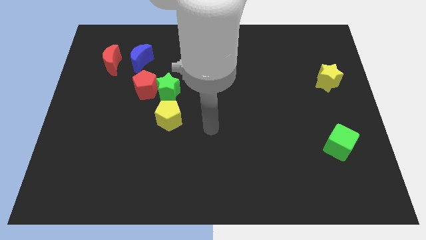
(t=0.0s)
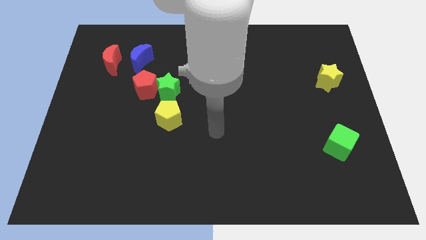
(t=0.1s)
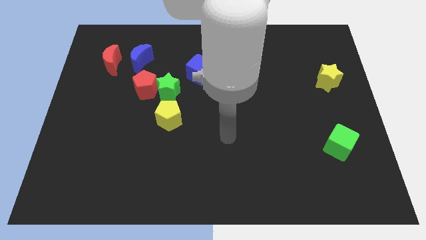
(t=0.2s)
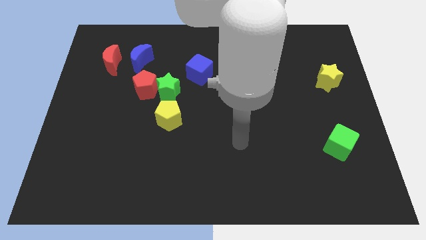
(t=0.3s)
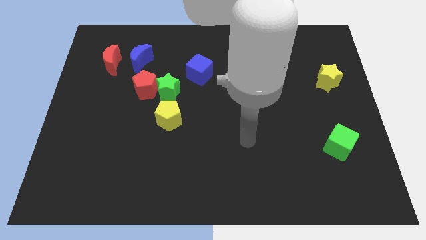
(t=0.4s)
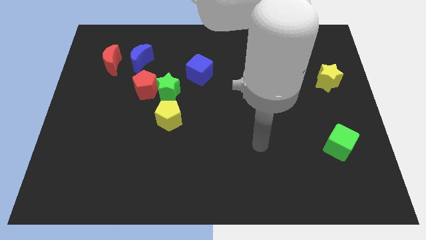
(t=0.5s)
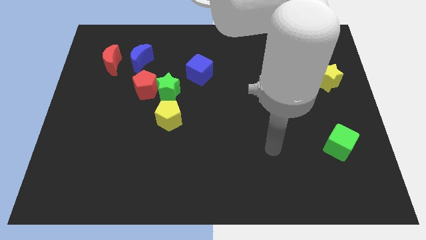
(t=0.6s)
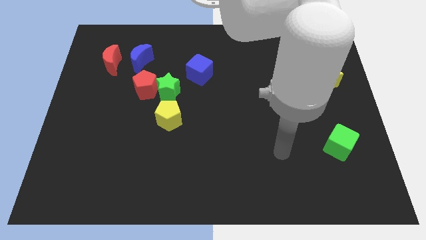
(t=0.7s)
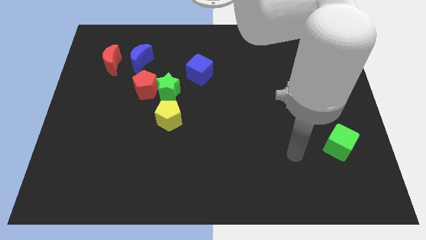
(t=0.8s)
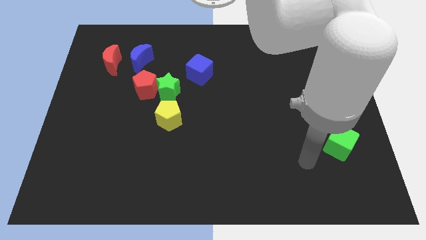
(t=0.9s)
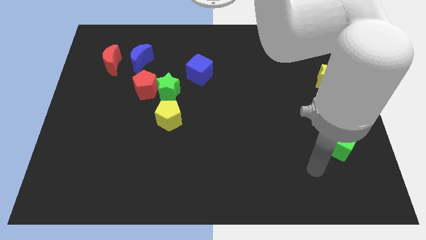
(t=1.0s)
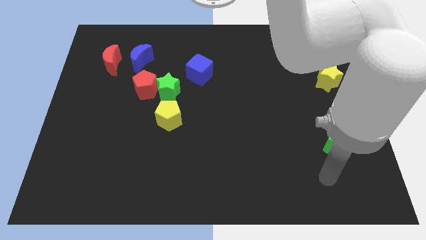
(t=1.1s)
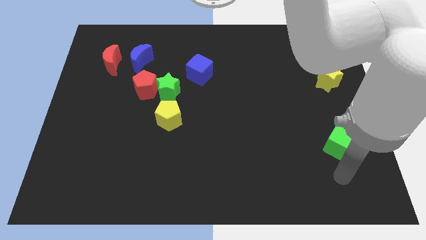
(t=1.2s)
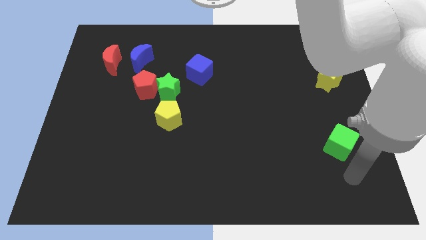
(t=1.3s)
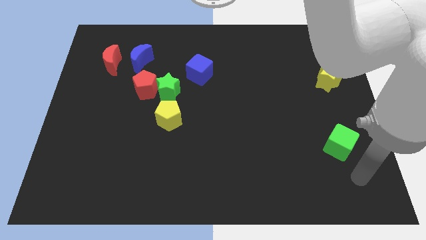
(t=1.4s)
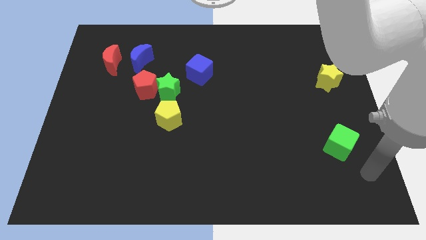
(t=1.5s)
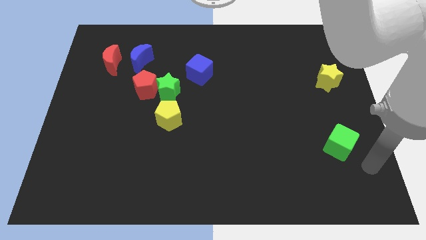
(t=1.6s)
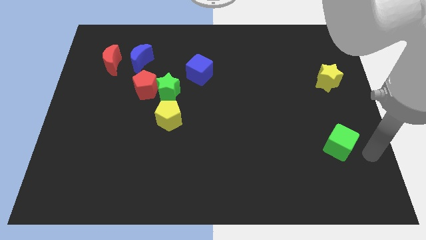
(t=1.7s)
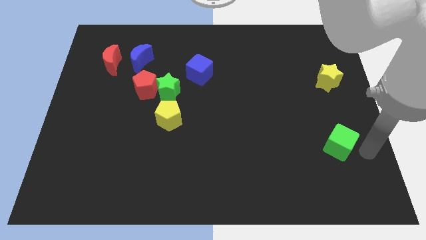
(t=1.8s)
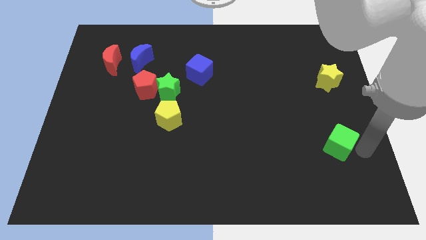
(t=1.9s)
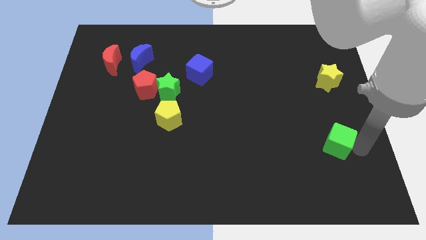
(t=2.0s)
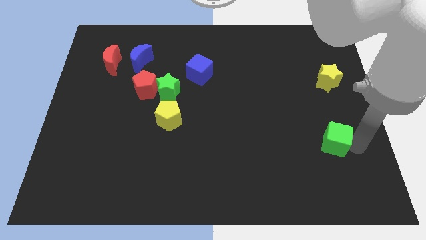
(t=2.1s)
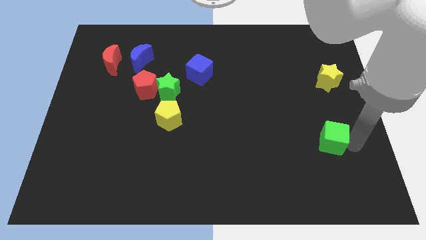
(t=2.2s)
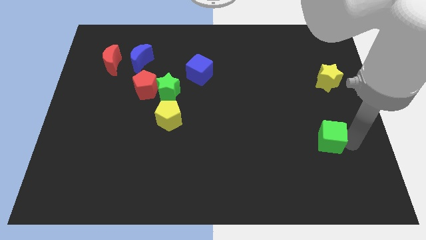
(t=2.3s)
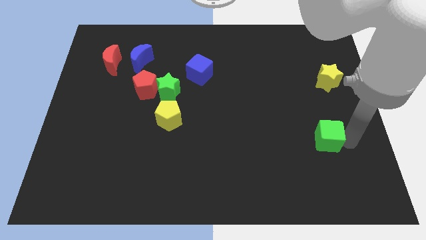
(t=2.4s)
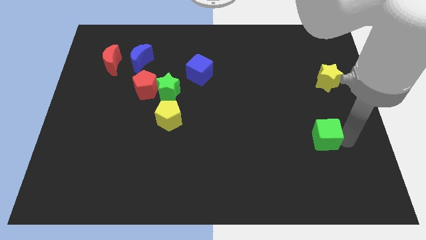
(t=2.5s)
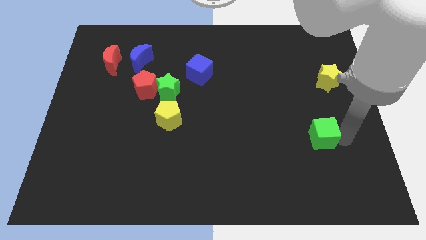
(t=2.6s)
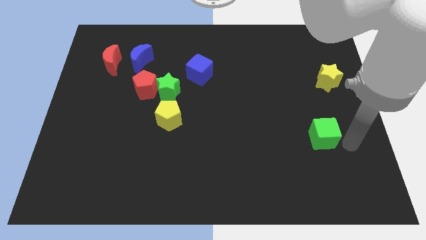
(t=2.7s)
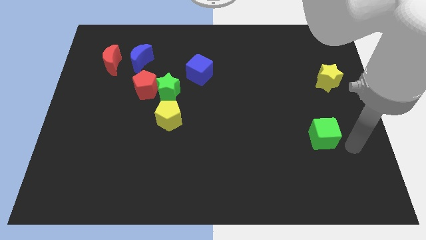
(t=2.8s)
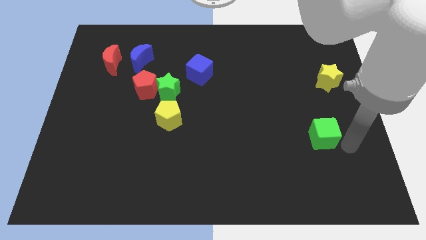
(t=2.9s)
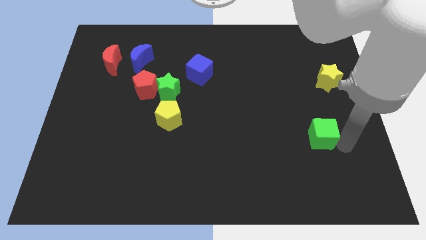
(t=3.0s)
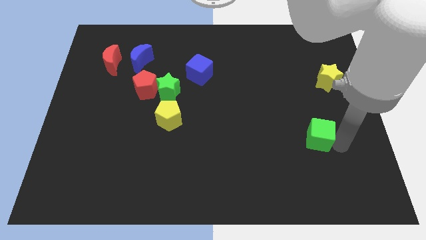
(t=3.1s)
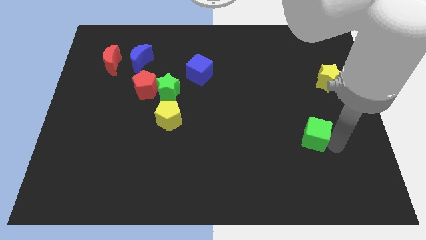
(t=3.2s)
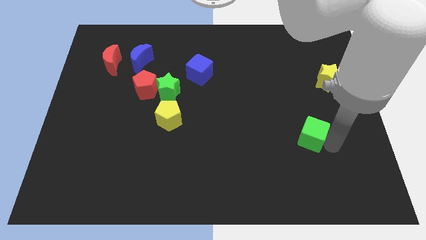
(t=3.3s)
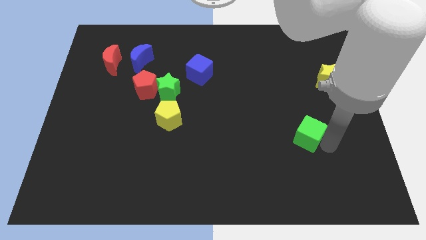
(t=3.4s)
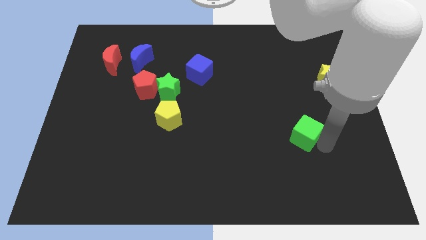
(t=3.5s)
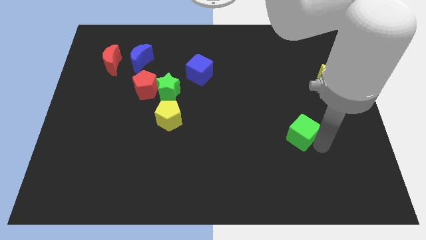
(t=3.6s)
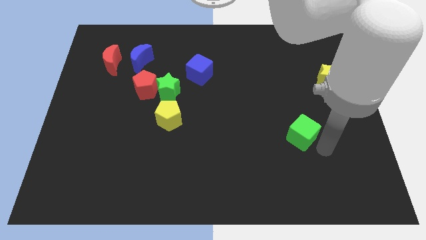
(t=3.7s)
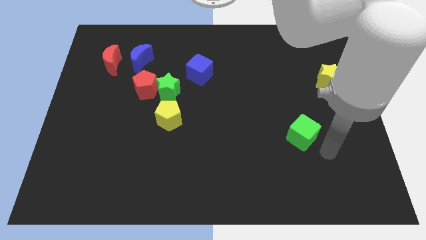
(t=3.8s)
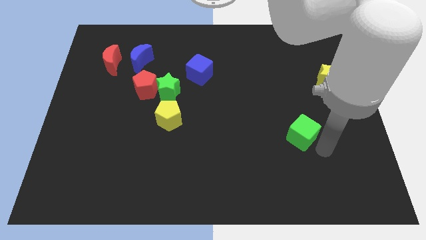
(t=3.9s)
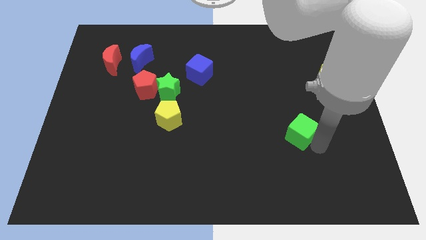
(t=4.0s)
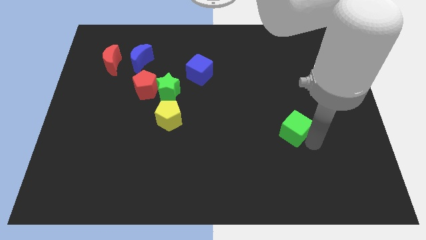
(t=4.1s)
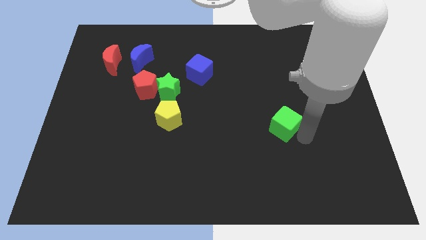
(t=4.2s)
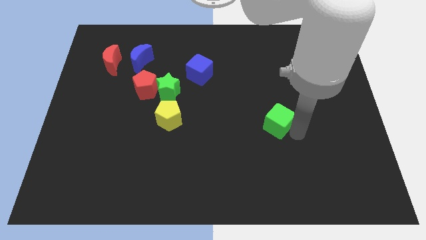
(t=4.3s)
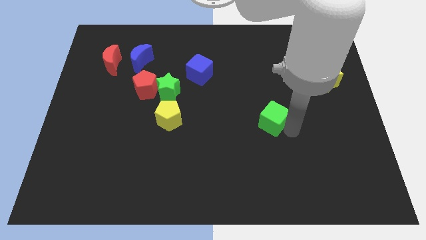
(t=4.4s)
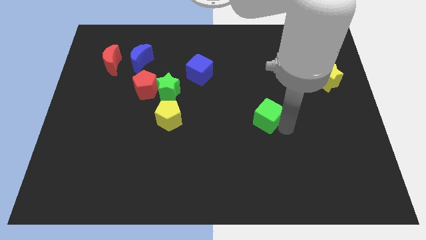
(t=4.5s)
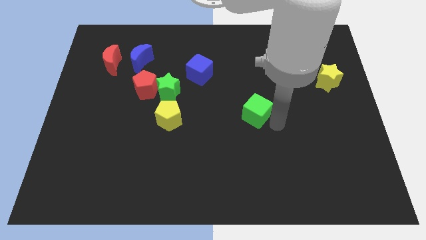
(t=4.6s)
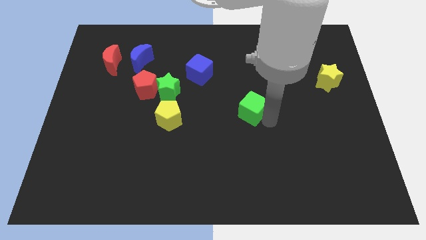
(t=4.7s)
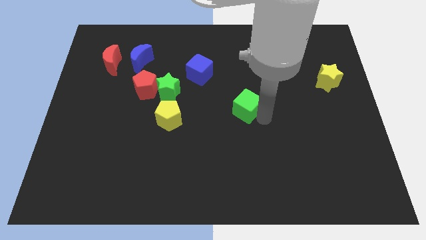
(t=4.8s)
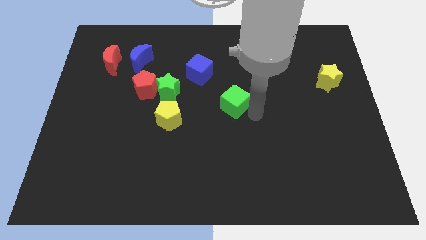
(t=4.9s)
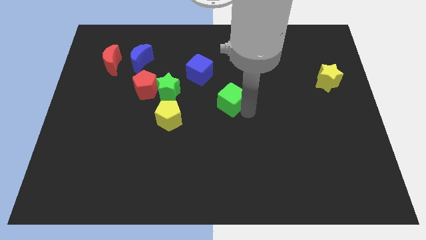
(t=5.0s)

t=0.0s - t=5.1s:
put the green cube diagonally down and to the right of the blue cube

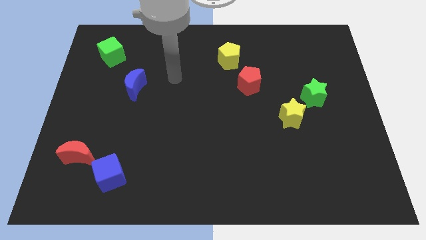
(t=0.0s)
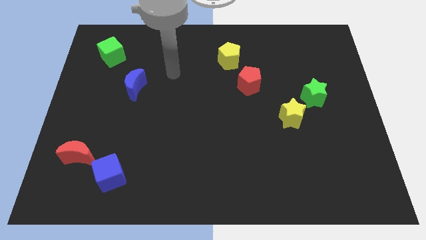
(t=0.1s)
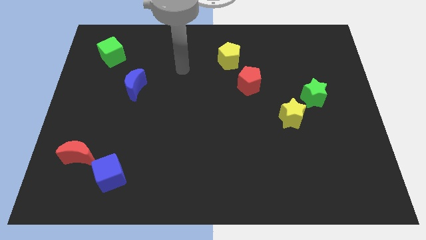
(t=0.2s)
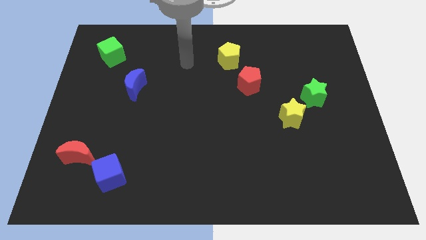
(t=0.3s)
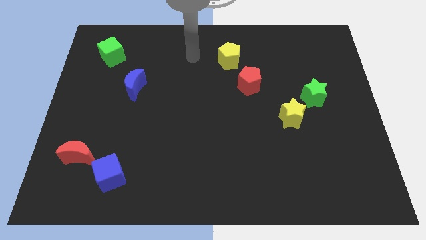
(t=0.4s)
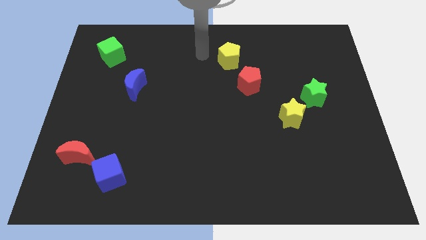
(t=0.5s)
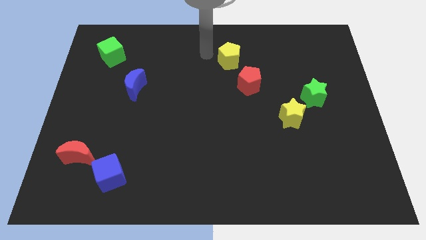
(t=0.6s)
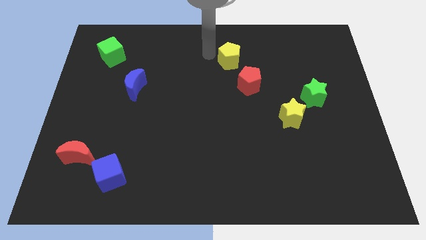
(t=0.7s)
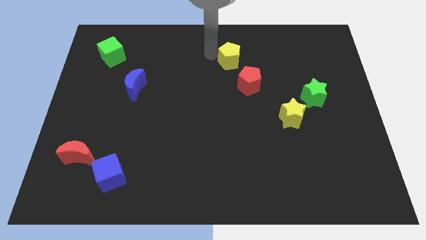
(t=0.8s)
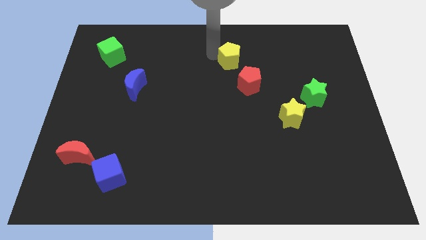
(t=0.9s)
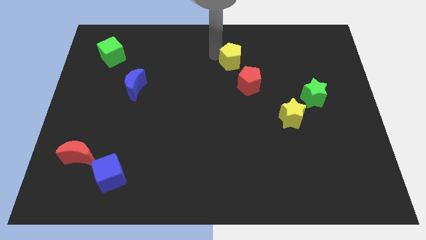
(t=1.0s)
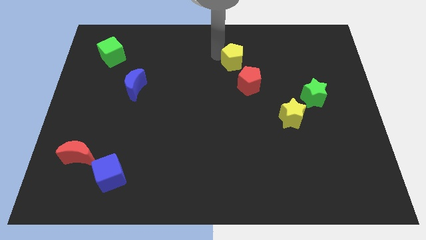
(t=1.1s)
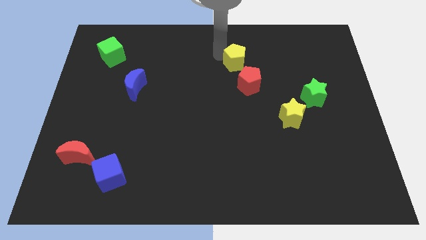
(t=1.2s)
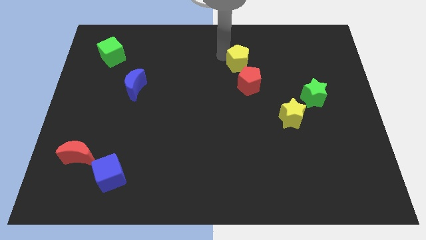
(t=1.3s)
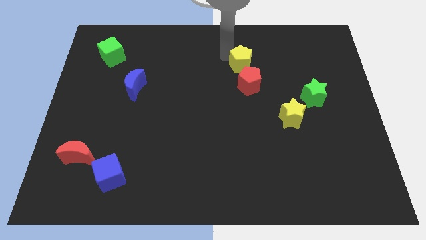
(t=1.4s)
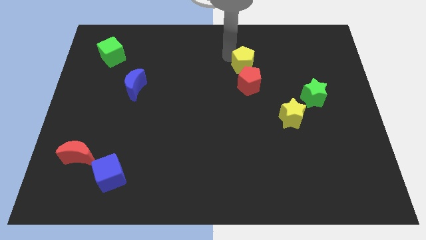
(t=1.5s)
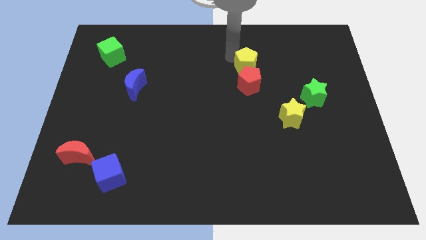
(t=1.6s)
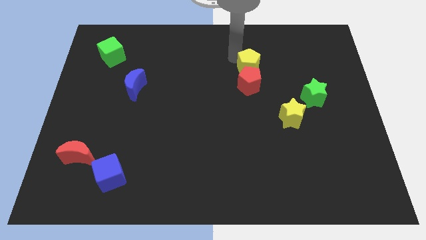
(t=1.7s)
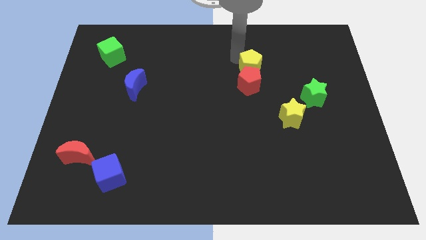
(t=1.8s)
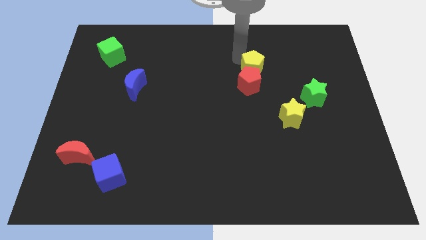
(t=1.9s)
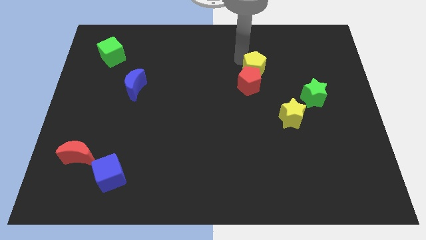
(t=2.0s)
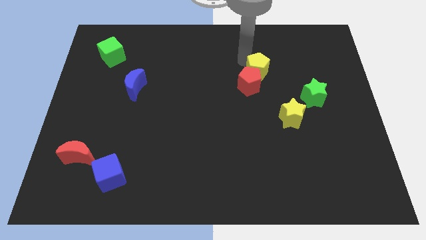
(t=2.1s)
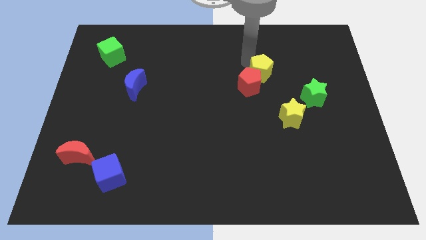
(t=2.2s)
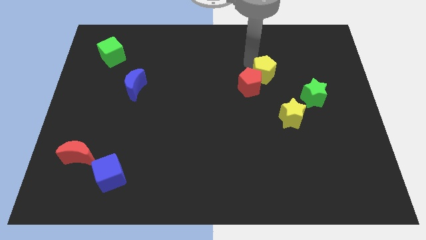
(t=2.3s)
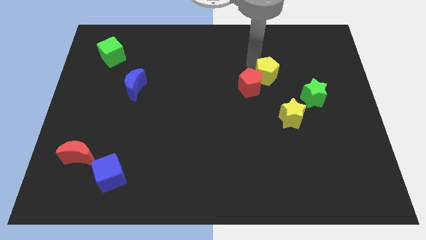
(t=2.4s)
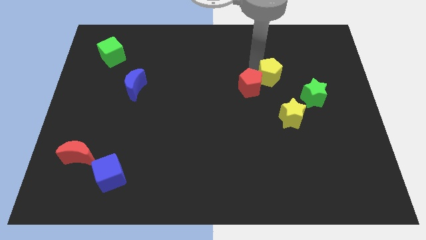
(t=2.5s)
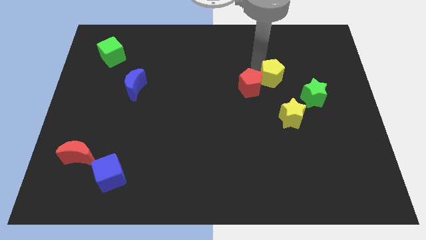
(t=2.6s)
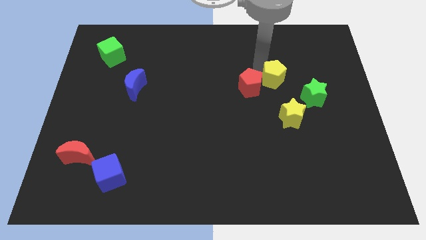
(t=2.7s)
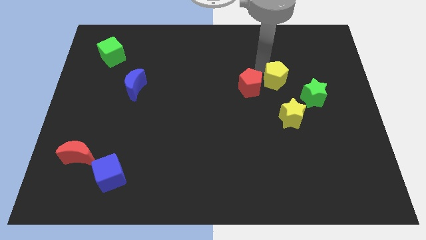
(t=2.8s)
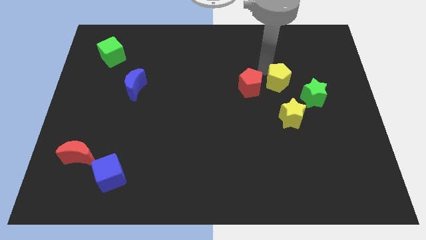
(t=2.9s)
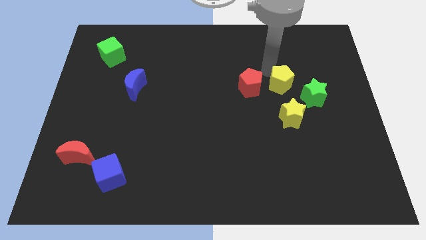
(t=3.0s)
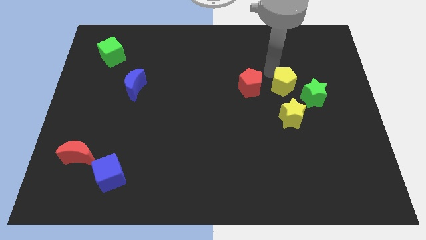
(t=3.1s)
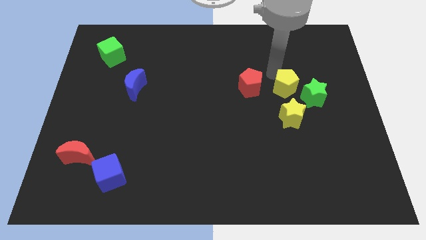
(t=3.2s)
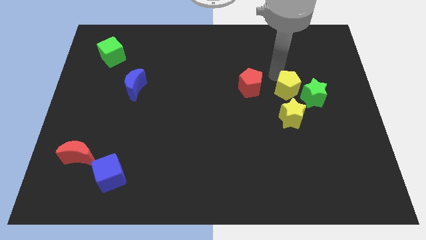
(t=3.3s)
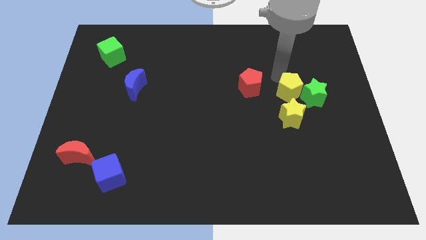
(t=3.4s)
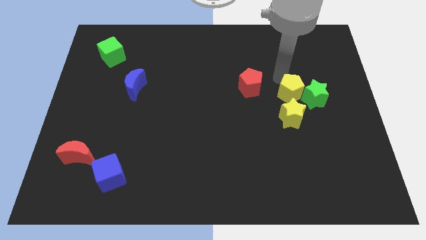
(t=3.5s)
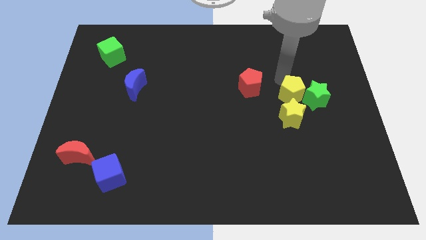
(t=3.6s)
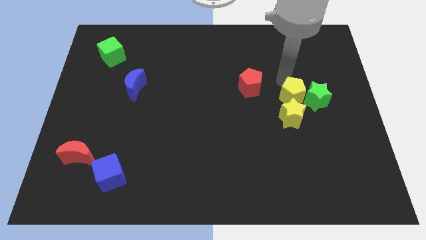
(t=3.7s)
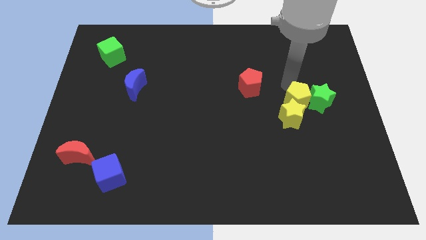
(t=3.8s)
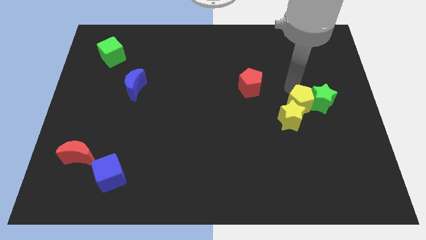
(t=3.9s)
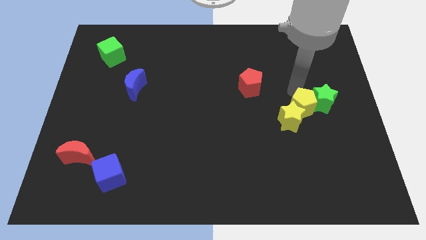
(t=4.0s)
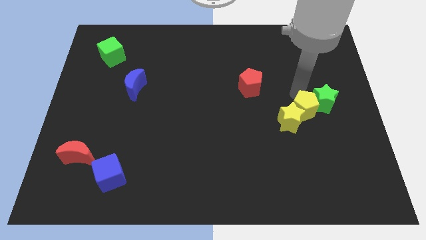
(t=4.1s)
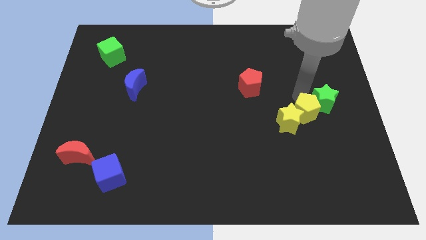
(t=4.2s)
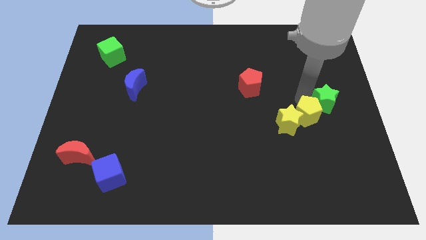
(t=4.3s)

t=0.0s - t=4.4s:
move the yellow pentagon below the green star
